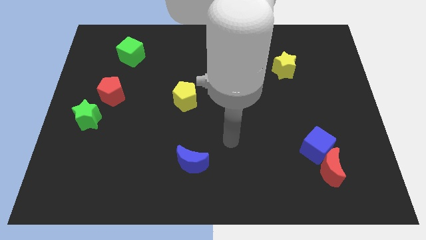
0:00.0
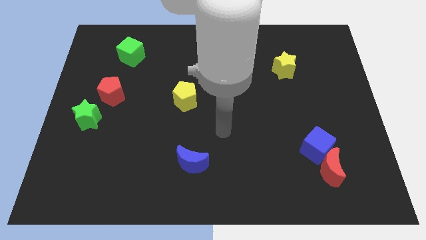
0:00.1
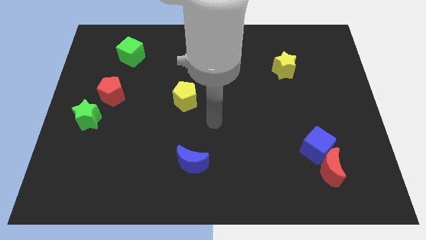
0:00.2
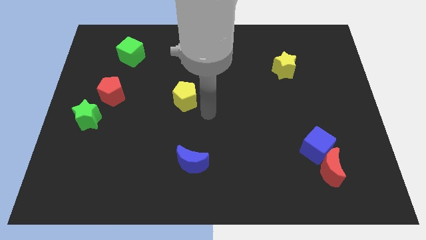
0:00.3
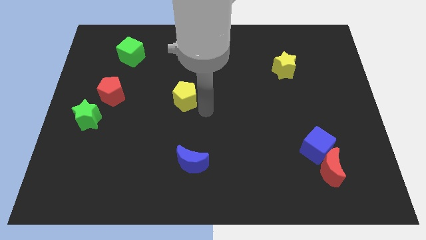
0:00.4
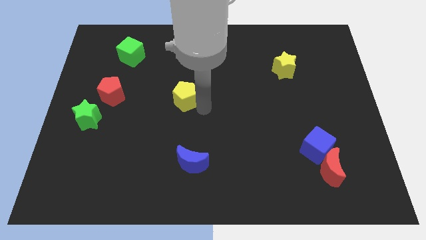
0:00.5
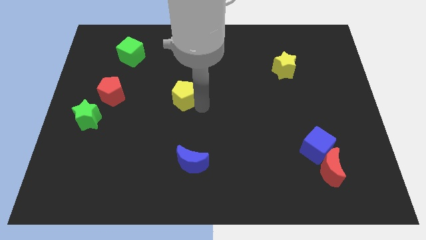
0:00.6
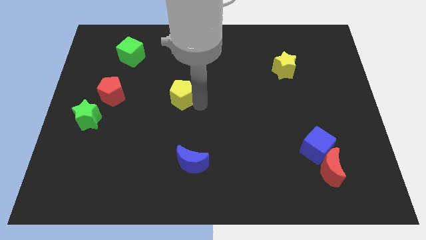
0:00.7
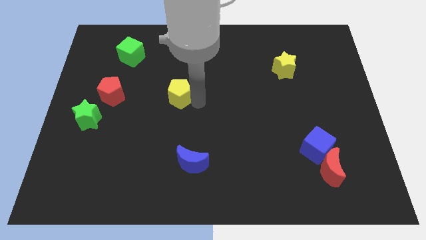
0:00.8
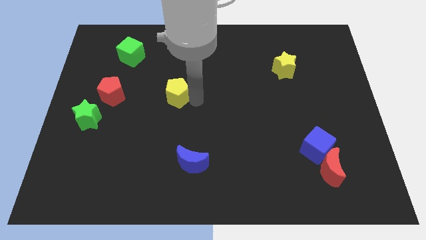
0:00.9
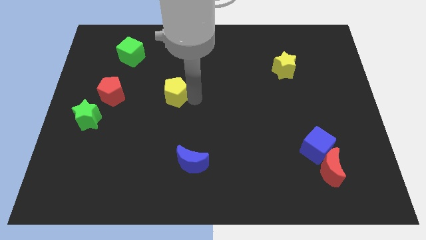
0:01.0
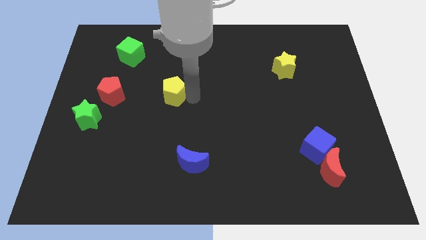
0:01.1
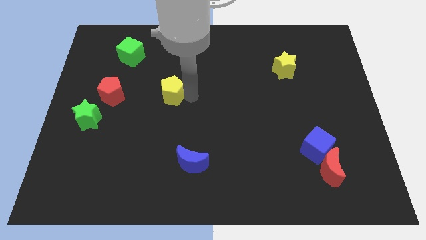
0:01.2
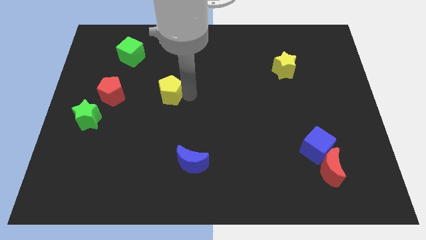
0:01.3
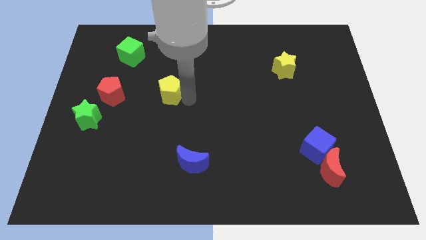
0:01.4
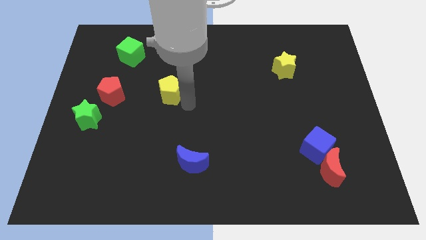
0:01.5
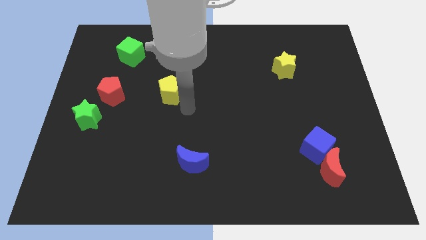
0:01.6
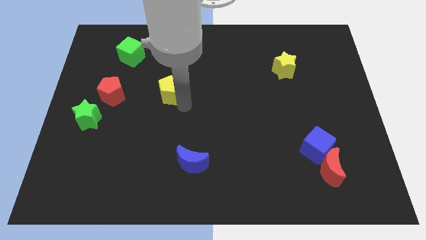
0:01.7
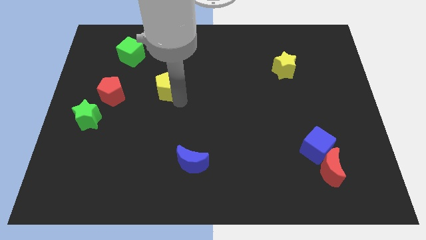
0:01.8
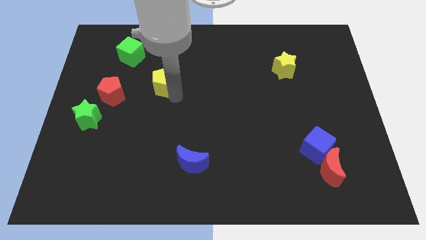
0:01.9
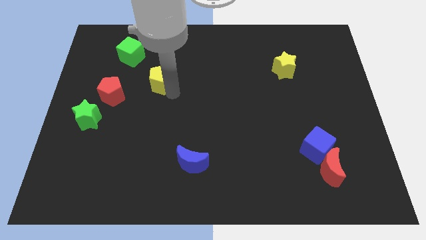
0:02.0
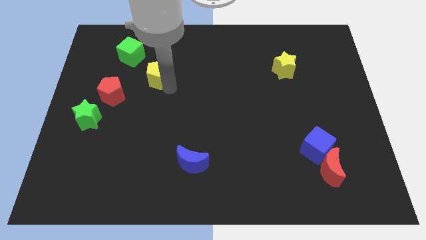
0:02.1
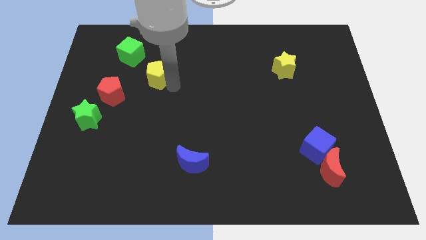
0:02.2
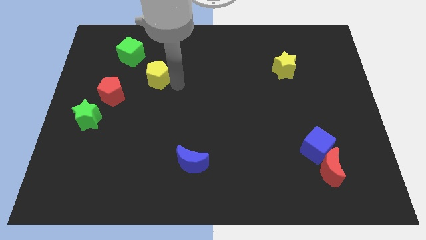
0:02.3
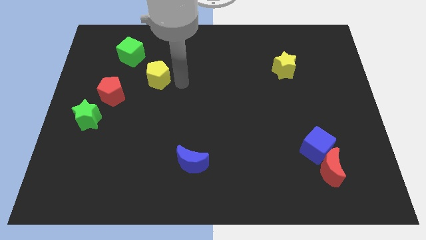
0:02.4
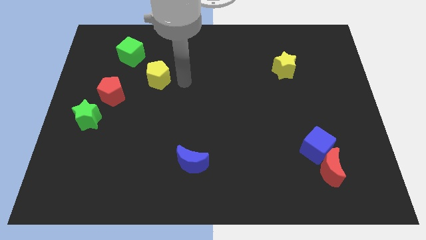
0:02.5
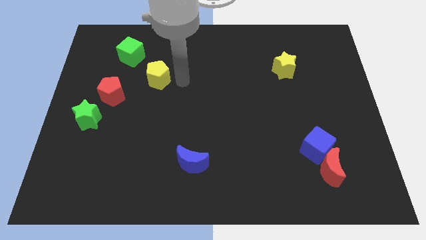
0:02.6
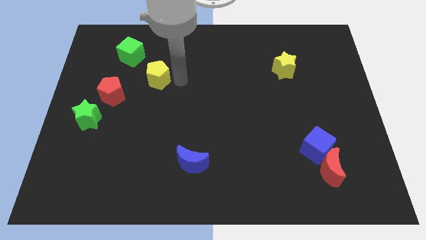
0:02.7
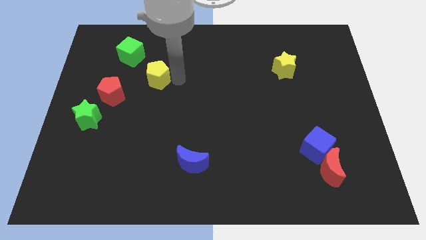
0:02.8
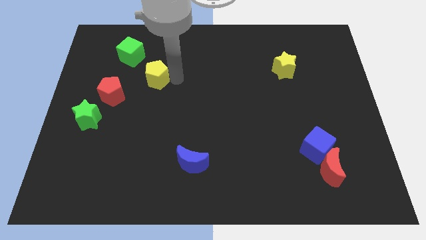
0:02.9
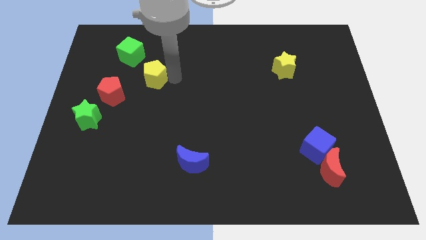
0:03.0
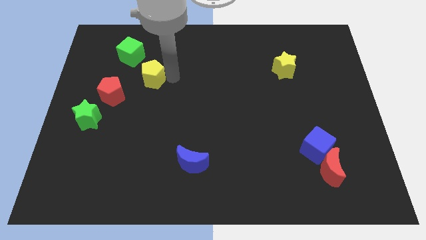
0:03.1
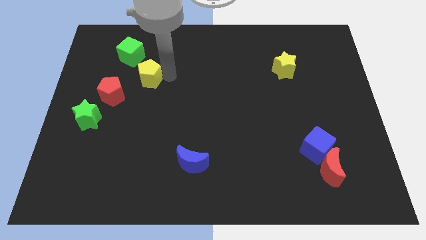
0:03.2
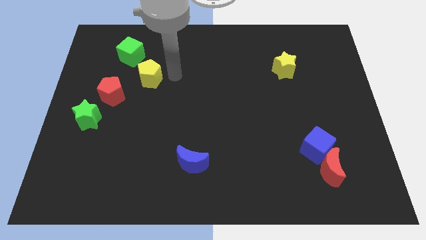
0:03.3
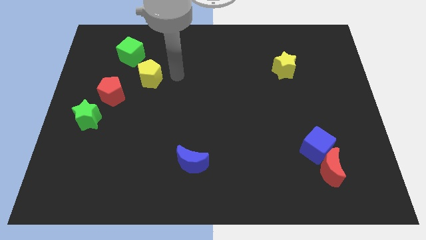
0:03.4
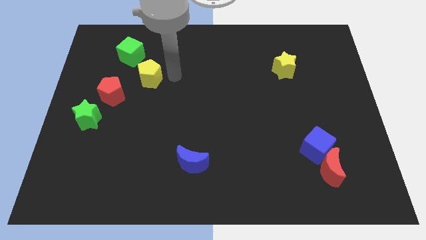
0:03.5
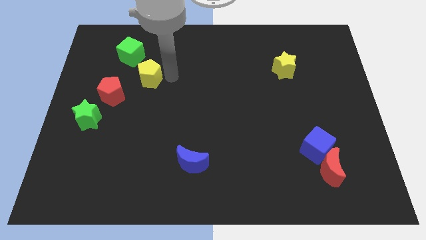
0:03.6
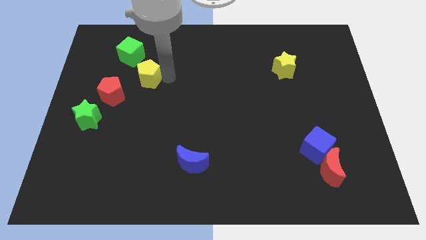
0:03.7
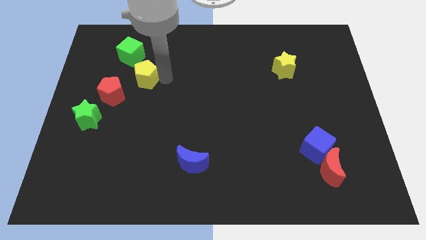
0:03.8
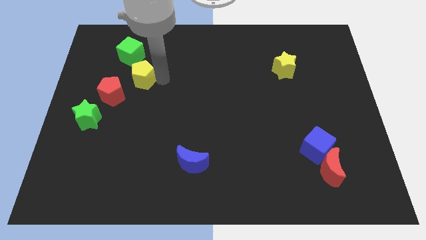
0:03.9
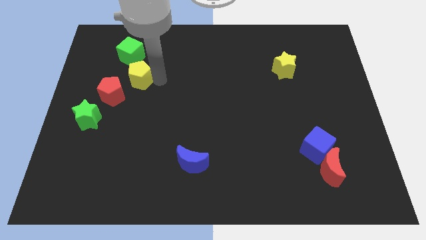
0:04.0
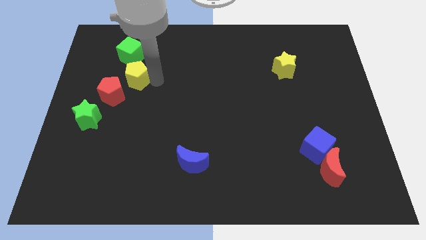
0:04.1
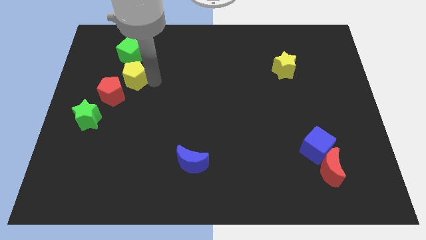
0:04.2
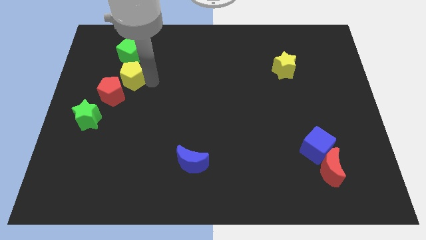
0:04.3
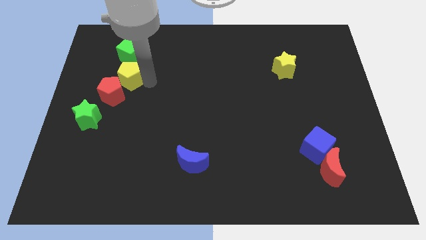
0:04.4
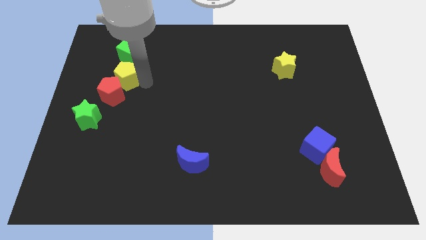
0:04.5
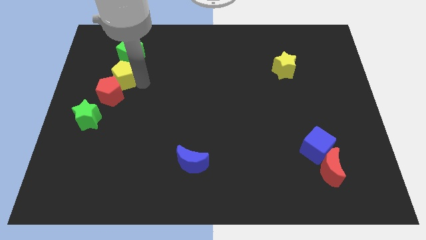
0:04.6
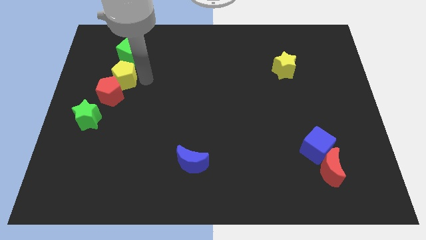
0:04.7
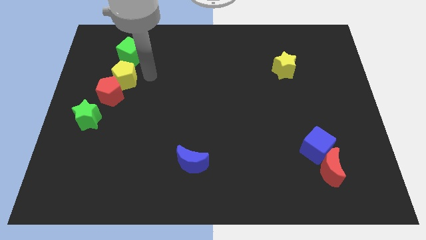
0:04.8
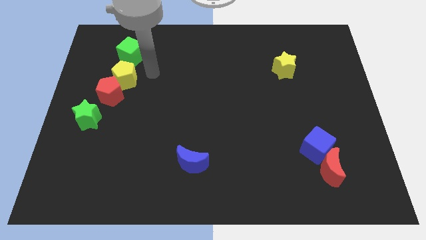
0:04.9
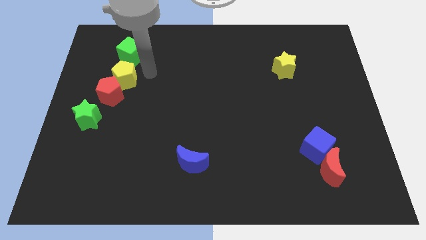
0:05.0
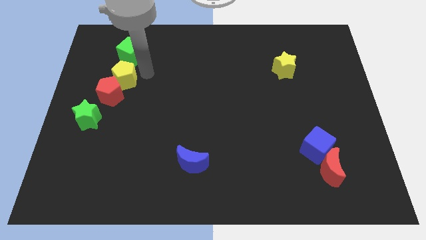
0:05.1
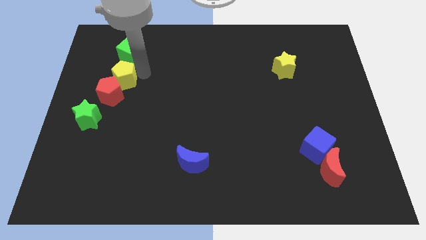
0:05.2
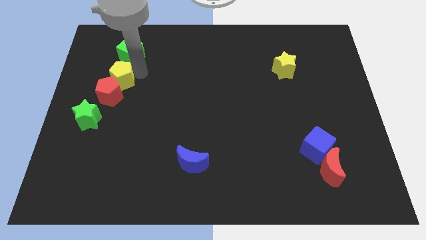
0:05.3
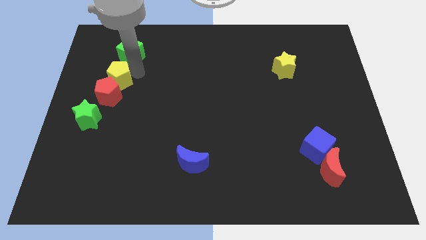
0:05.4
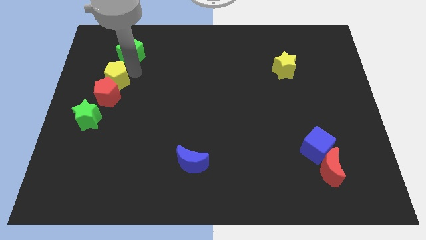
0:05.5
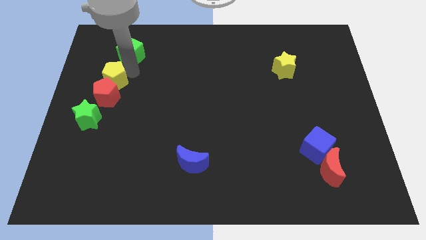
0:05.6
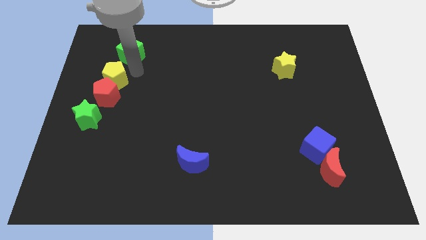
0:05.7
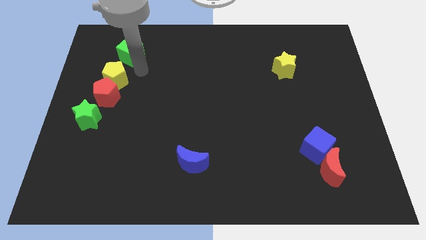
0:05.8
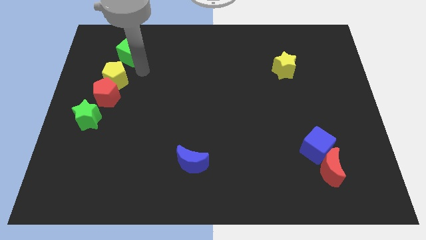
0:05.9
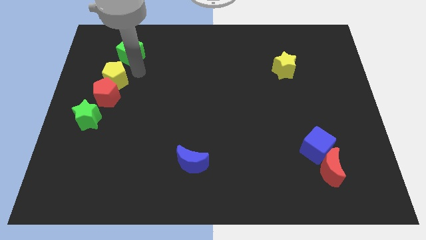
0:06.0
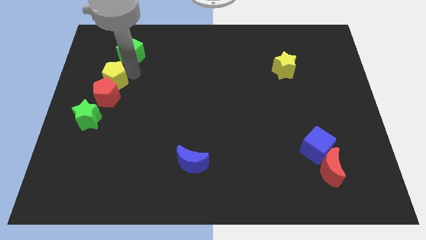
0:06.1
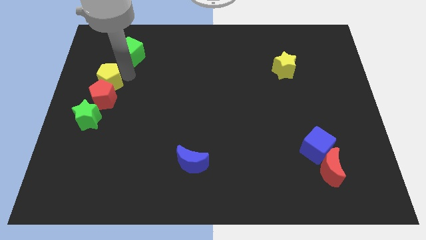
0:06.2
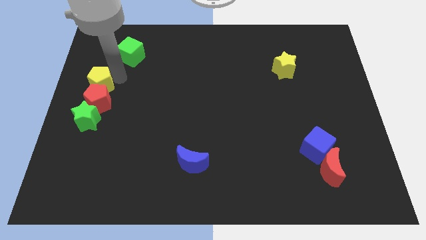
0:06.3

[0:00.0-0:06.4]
move the yellow pentagon to the left side

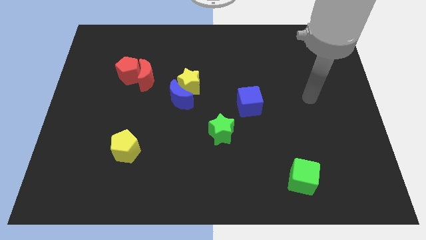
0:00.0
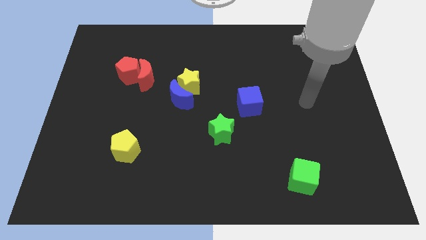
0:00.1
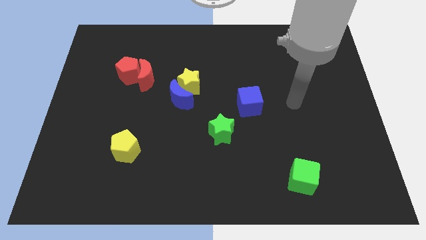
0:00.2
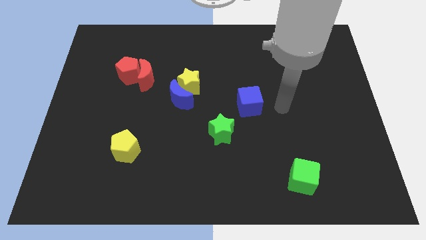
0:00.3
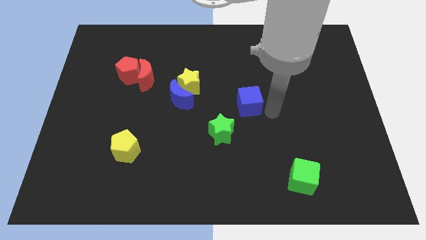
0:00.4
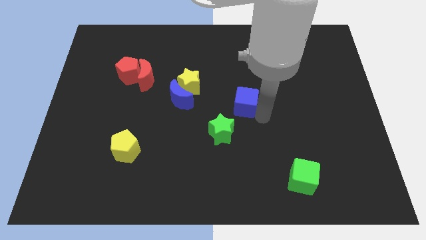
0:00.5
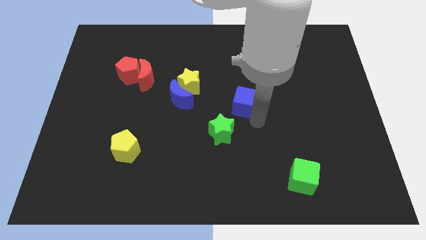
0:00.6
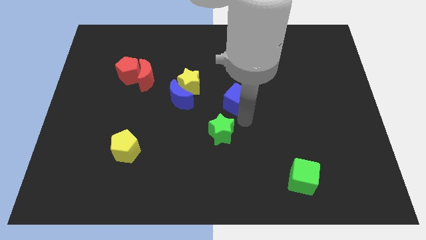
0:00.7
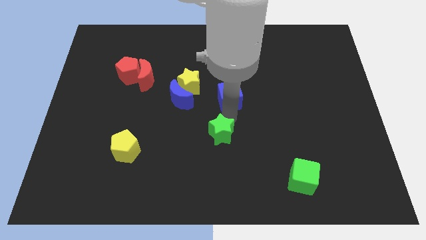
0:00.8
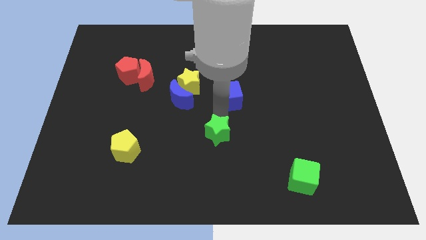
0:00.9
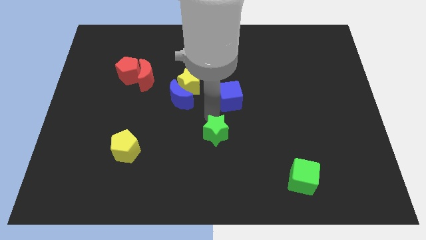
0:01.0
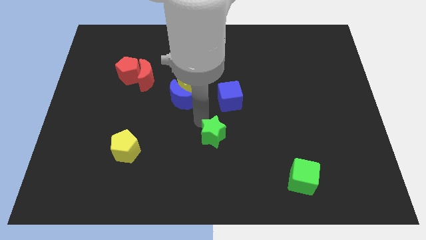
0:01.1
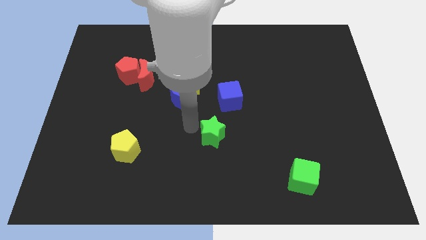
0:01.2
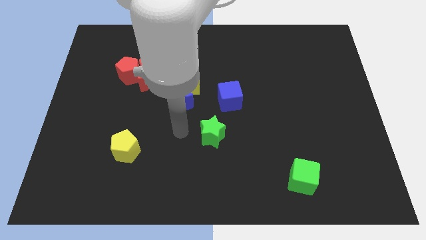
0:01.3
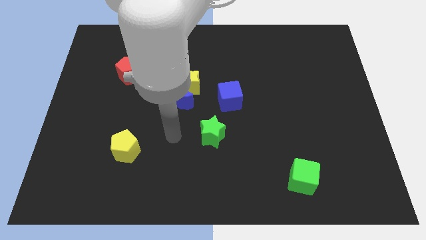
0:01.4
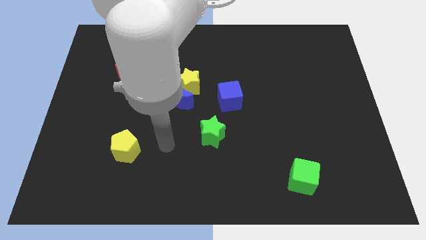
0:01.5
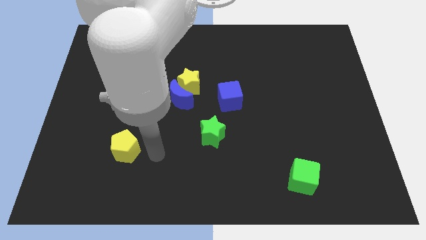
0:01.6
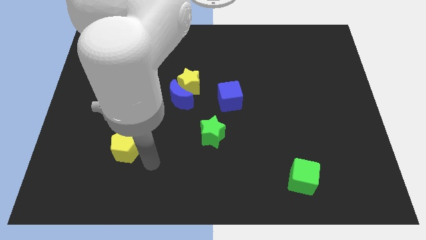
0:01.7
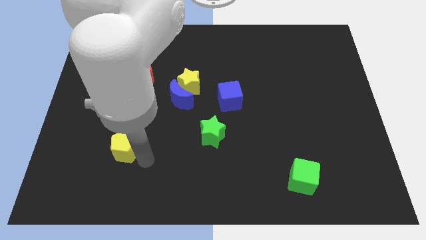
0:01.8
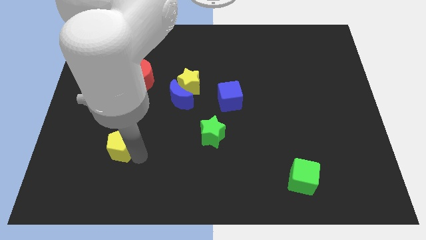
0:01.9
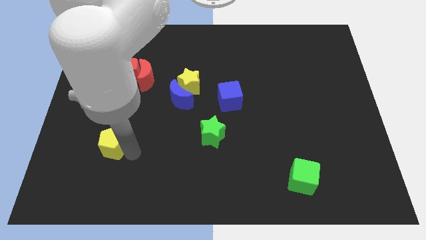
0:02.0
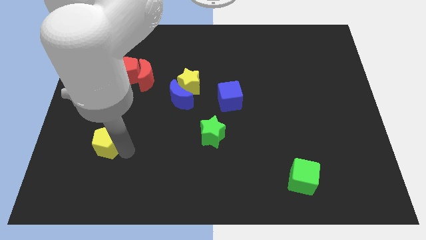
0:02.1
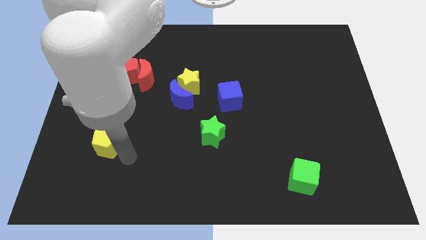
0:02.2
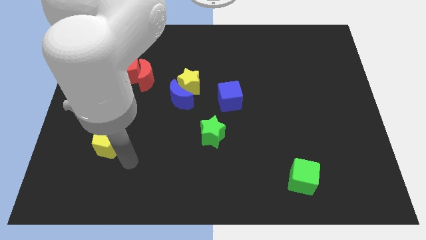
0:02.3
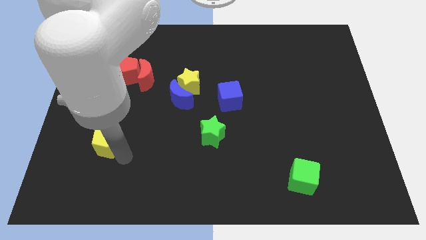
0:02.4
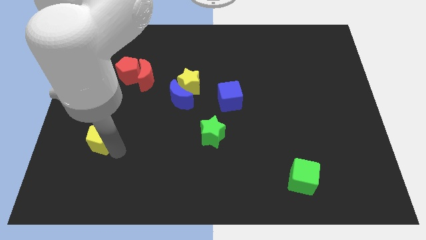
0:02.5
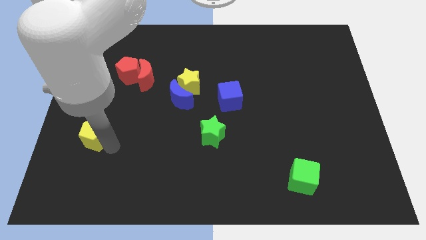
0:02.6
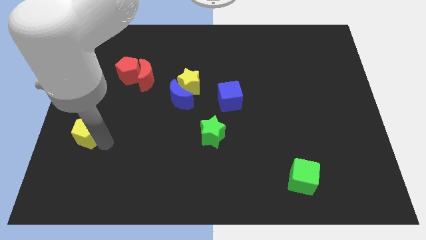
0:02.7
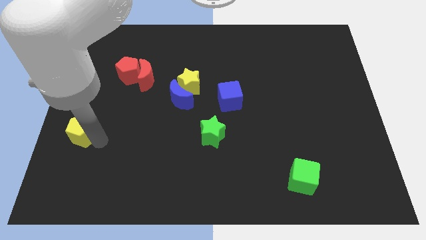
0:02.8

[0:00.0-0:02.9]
move the yellow pentagon to the left side of the board
